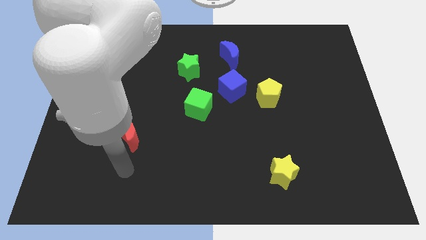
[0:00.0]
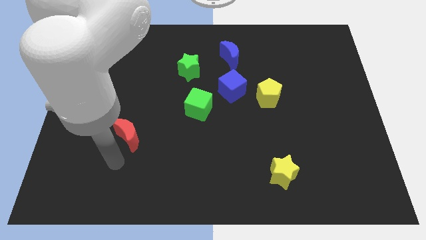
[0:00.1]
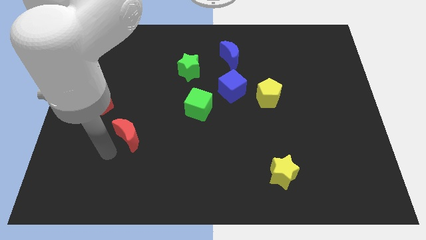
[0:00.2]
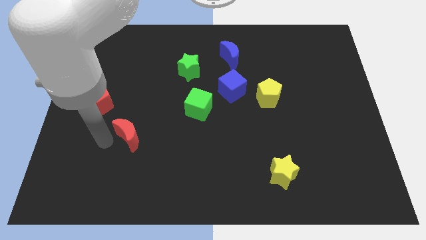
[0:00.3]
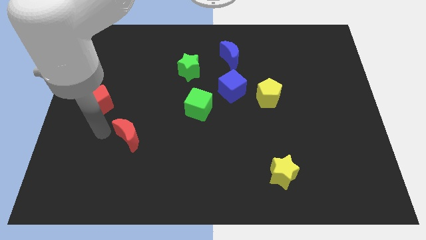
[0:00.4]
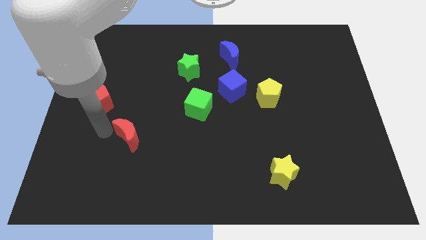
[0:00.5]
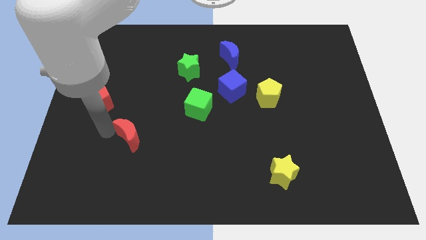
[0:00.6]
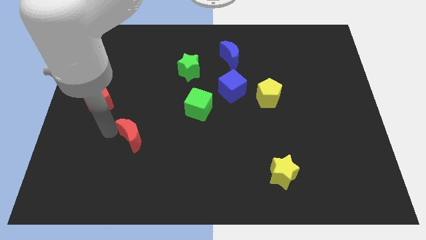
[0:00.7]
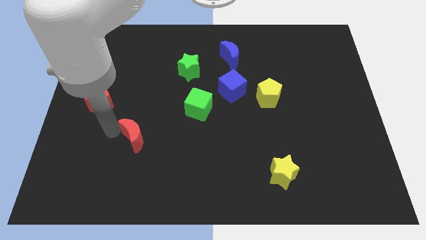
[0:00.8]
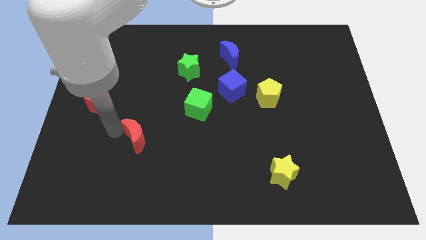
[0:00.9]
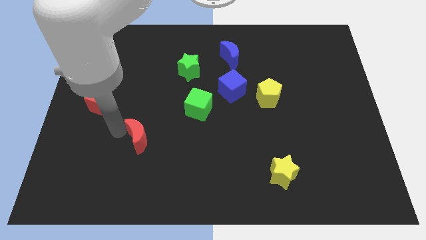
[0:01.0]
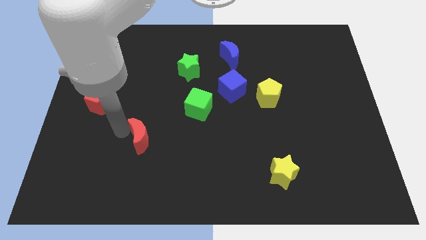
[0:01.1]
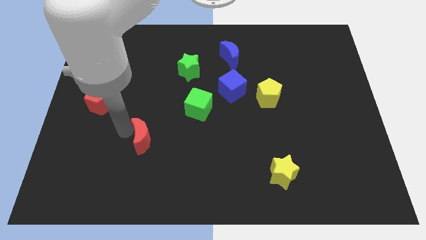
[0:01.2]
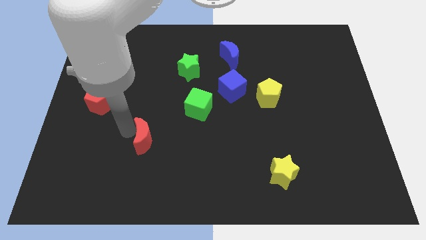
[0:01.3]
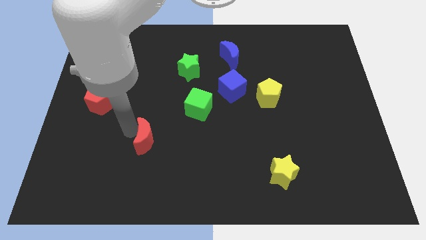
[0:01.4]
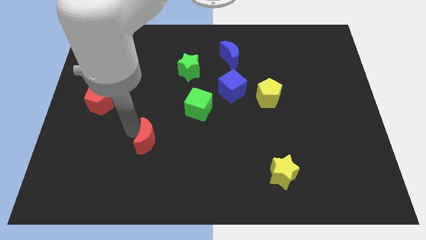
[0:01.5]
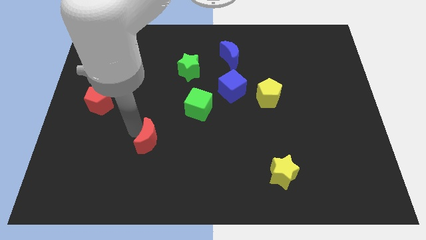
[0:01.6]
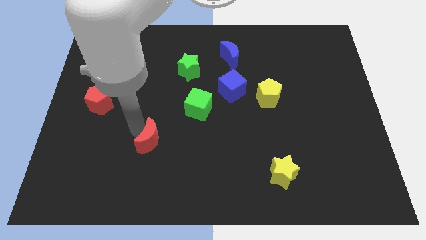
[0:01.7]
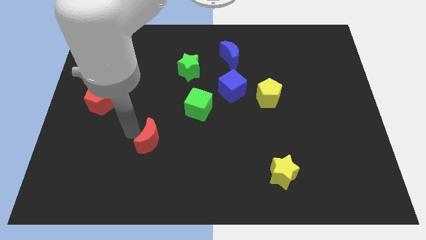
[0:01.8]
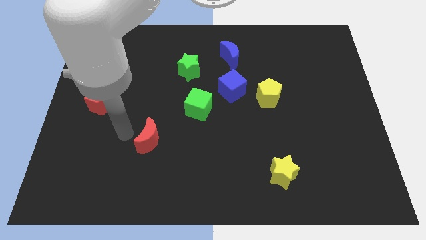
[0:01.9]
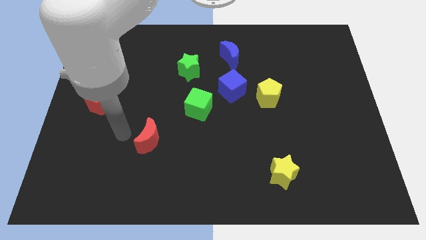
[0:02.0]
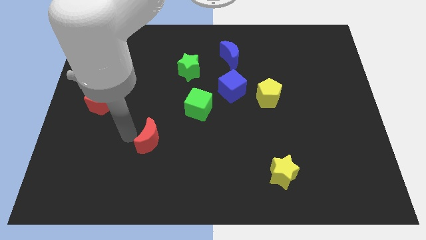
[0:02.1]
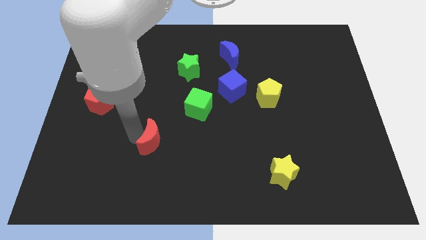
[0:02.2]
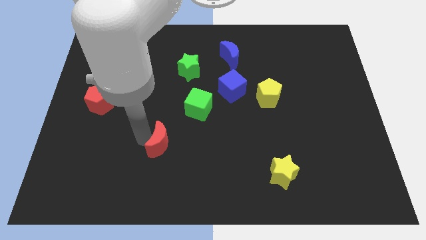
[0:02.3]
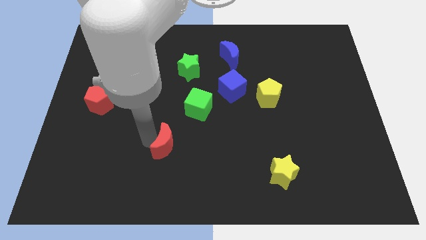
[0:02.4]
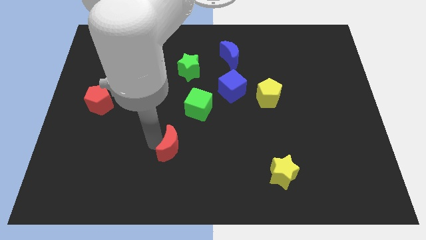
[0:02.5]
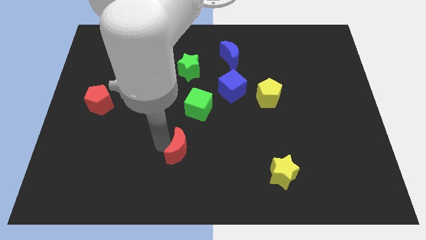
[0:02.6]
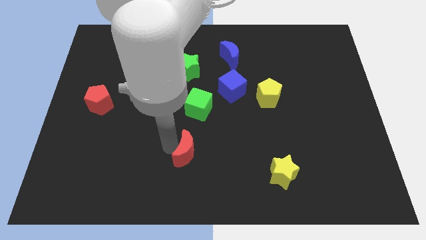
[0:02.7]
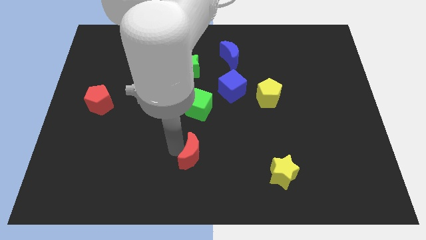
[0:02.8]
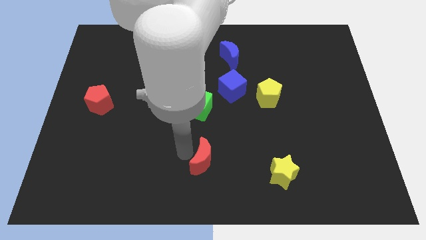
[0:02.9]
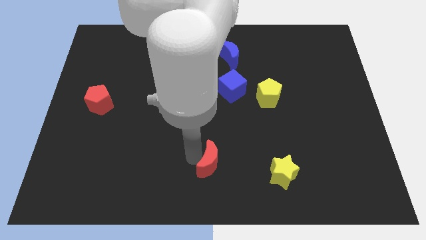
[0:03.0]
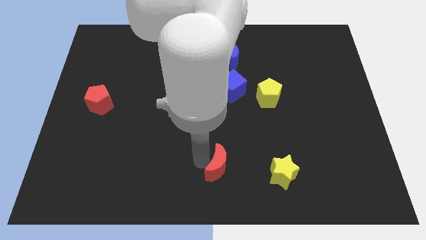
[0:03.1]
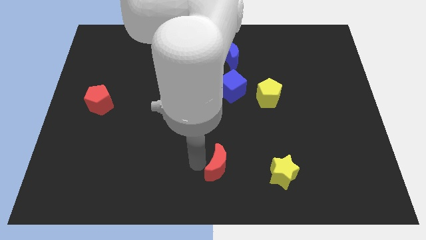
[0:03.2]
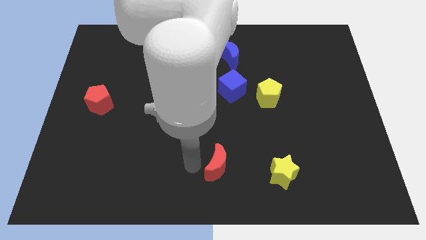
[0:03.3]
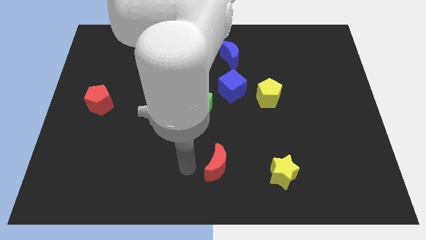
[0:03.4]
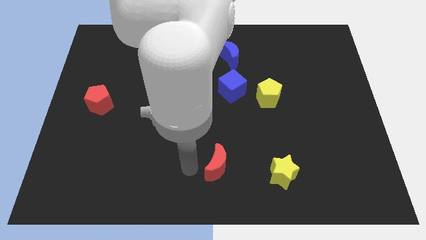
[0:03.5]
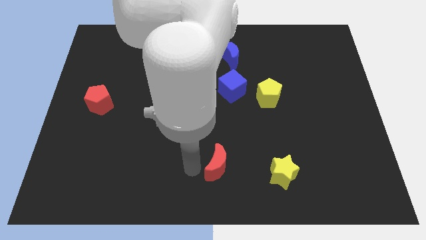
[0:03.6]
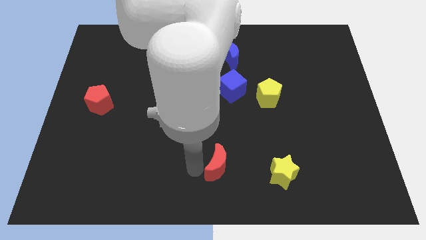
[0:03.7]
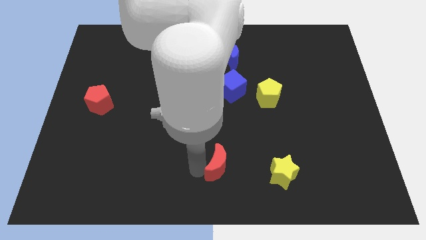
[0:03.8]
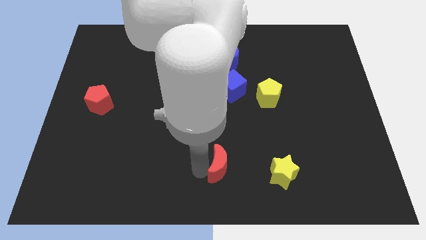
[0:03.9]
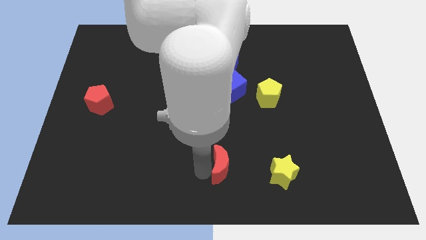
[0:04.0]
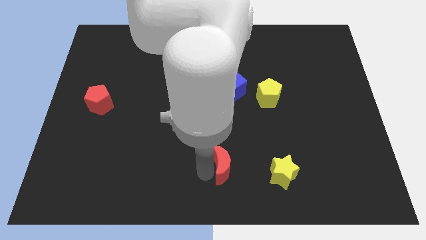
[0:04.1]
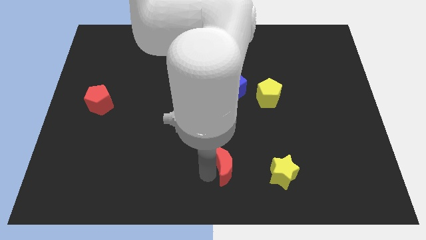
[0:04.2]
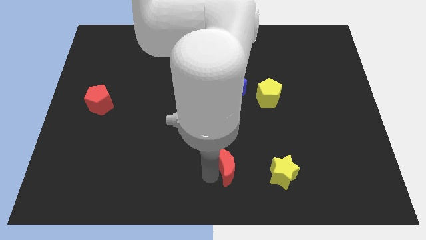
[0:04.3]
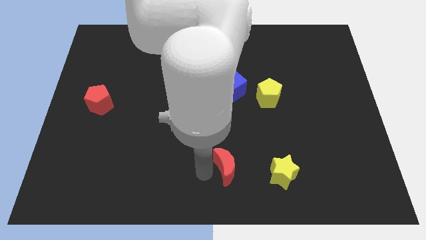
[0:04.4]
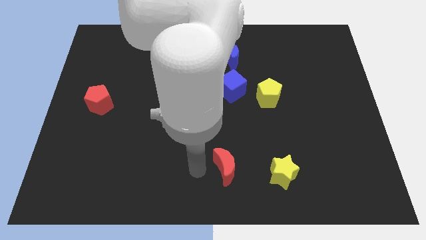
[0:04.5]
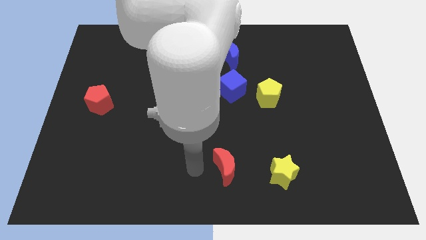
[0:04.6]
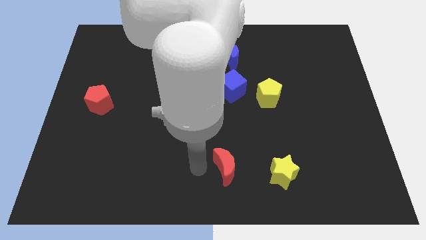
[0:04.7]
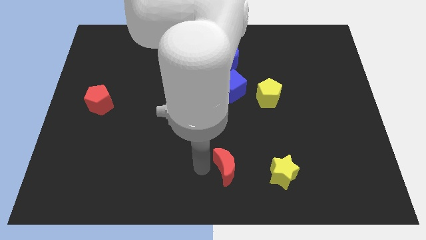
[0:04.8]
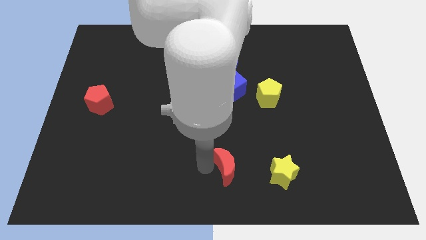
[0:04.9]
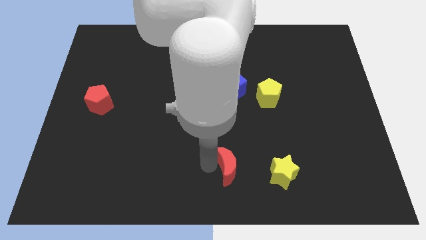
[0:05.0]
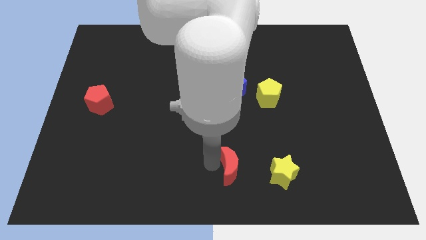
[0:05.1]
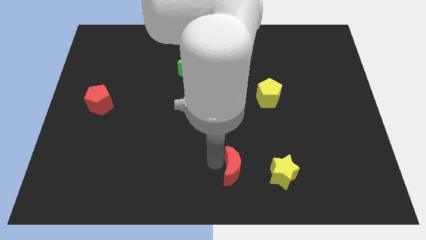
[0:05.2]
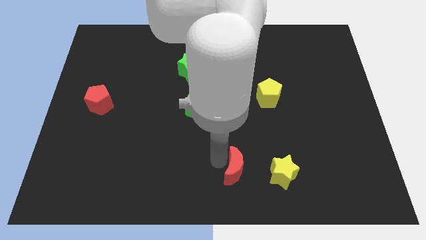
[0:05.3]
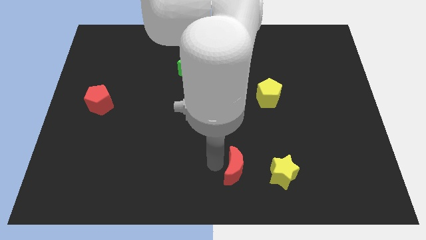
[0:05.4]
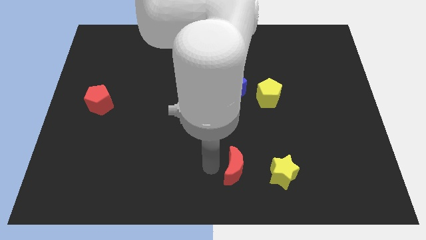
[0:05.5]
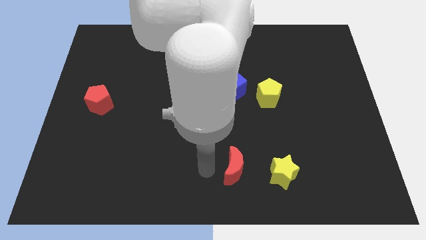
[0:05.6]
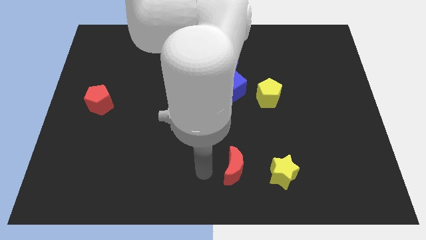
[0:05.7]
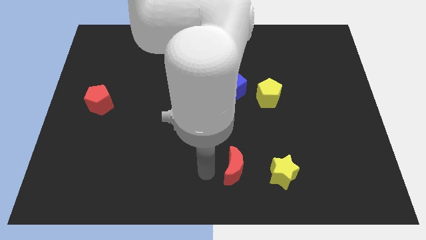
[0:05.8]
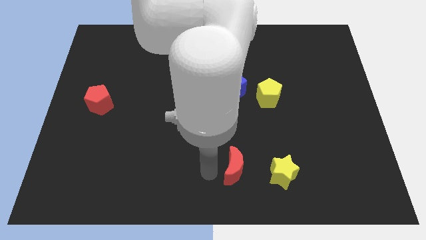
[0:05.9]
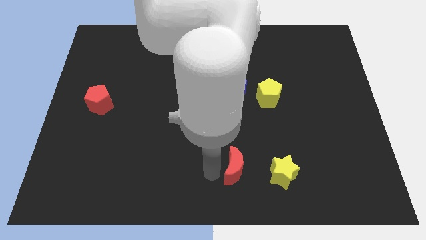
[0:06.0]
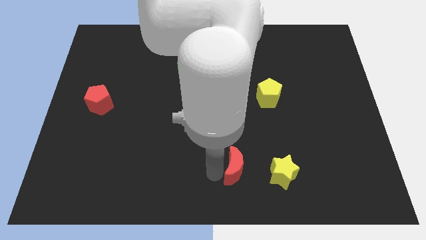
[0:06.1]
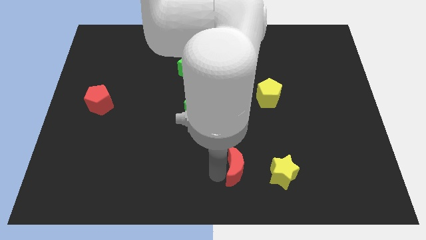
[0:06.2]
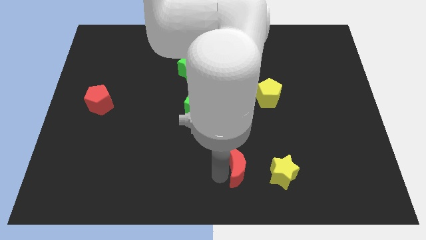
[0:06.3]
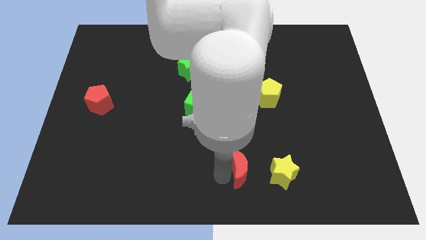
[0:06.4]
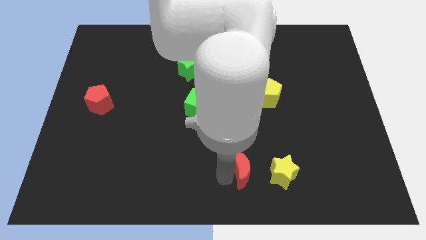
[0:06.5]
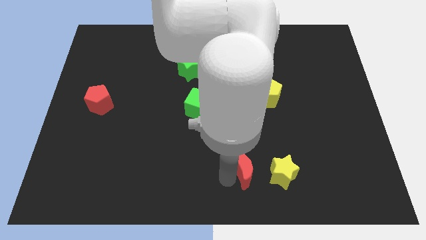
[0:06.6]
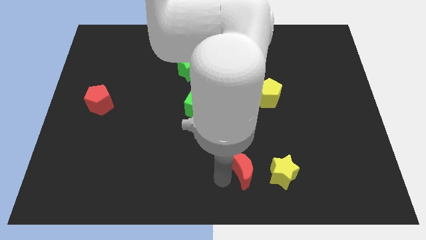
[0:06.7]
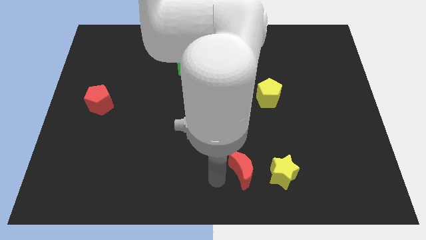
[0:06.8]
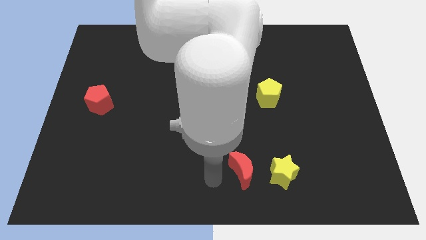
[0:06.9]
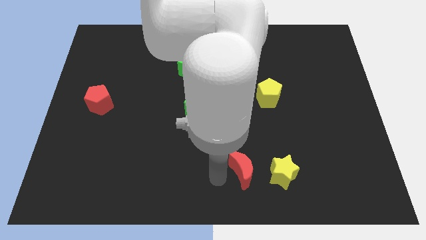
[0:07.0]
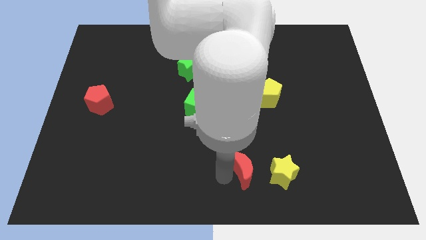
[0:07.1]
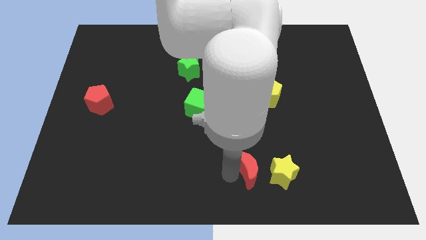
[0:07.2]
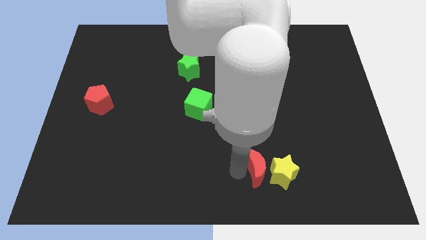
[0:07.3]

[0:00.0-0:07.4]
put the red moon close to the yellow star

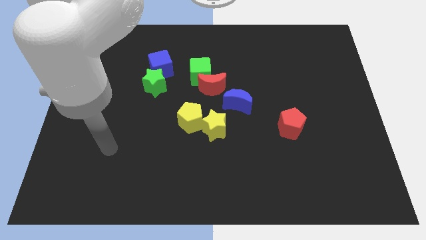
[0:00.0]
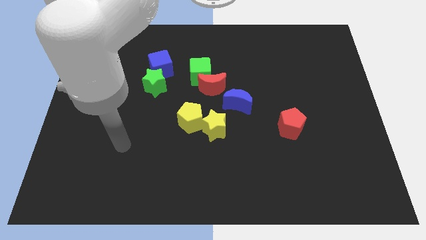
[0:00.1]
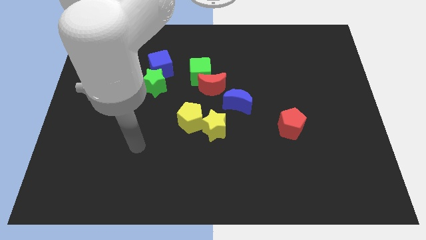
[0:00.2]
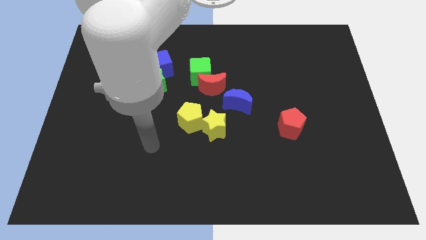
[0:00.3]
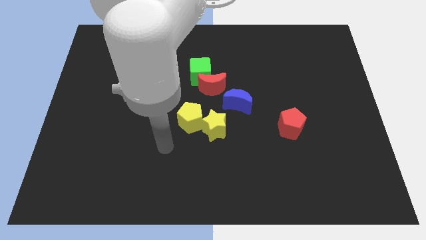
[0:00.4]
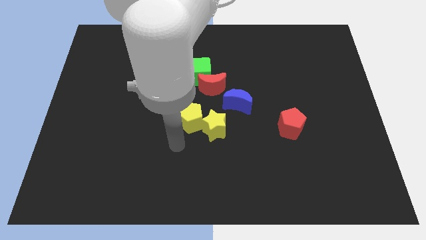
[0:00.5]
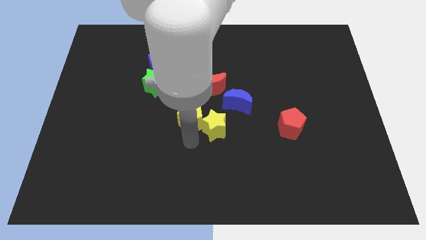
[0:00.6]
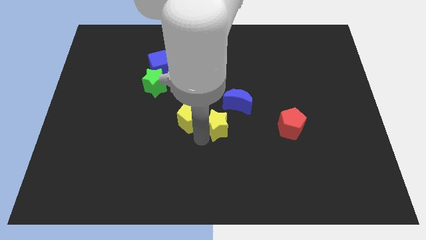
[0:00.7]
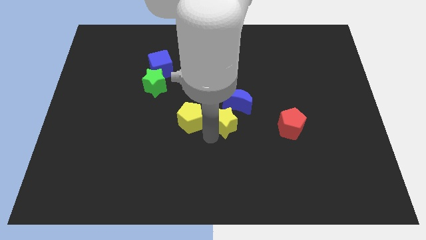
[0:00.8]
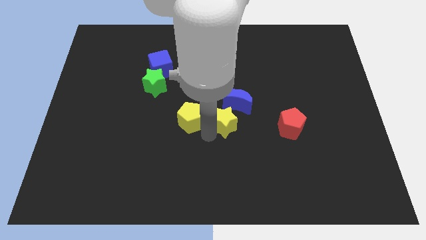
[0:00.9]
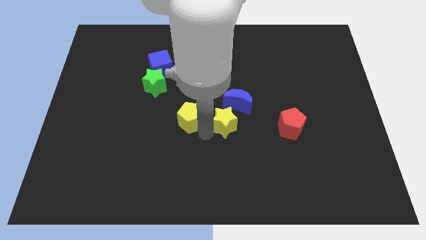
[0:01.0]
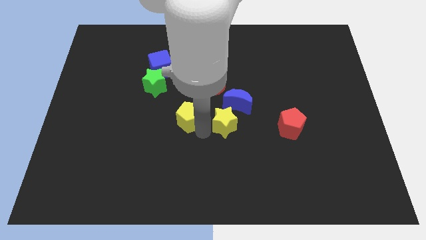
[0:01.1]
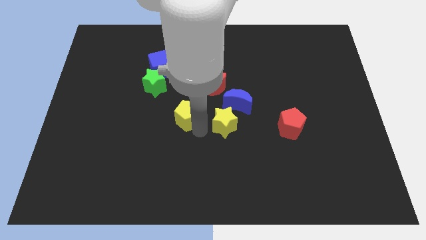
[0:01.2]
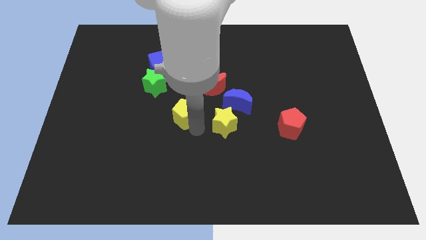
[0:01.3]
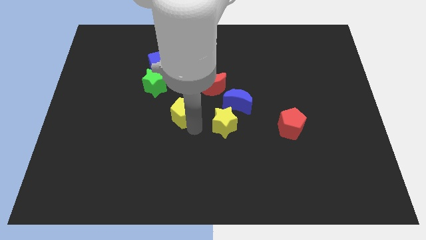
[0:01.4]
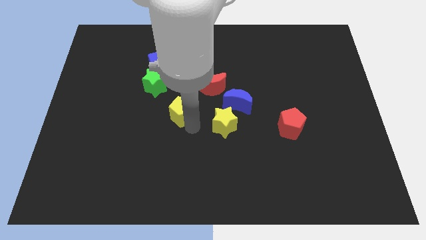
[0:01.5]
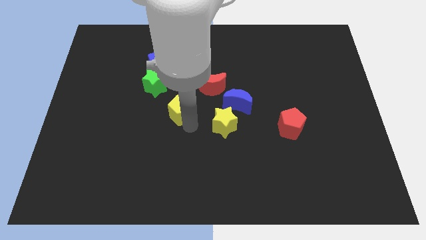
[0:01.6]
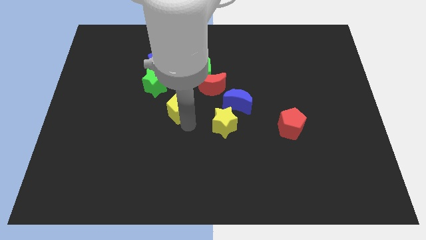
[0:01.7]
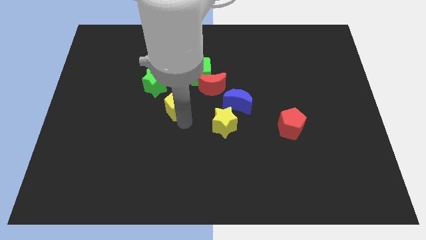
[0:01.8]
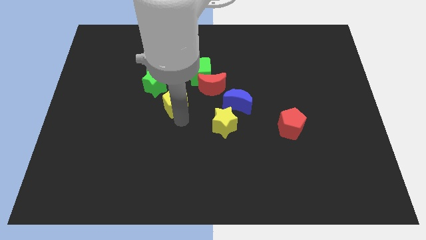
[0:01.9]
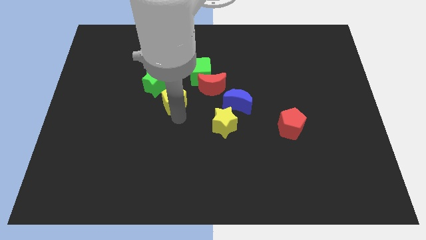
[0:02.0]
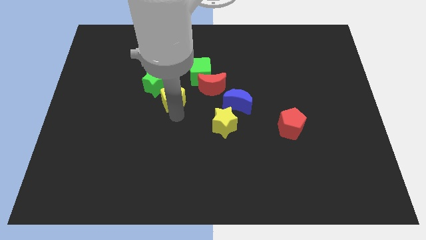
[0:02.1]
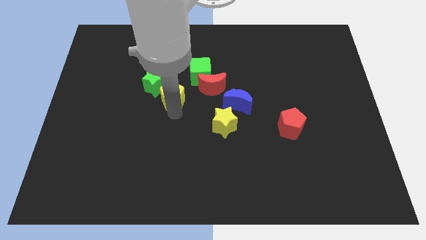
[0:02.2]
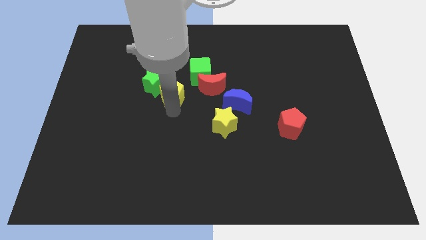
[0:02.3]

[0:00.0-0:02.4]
put the yellow pentagon to the green star
